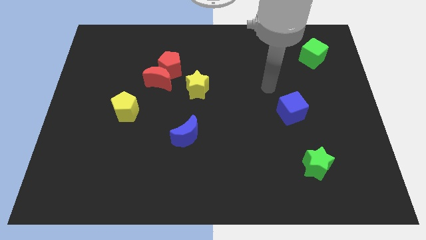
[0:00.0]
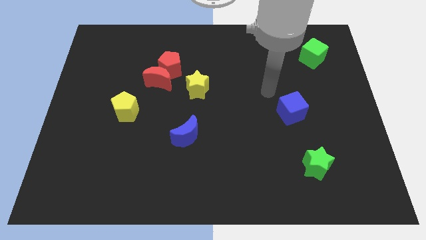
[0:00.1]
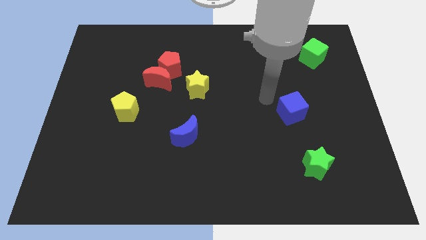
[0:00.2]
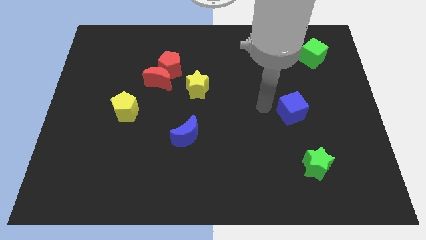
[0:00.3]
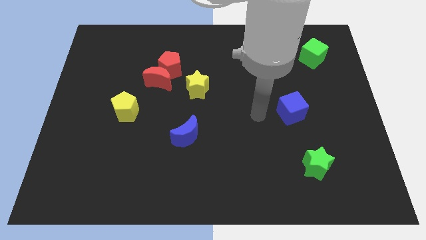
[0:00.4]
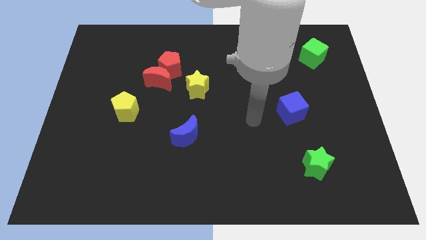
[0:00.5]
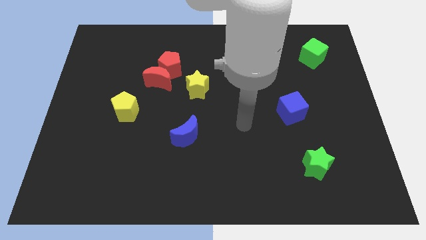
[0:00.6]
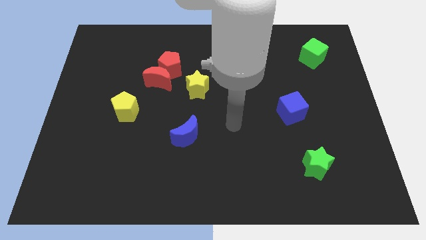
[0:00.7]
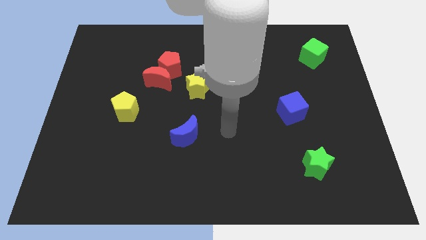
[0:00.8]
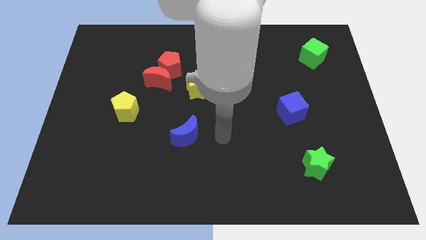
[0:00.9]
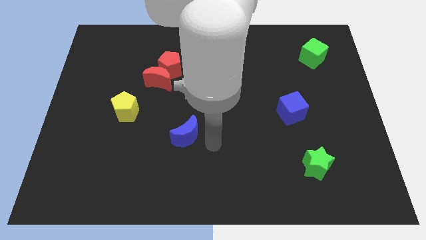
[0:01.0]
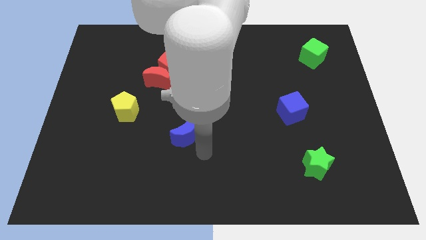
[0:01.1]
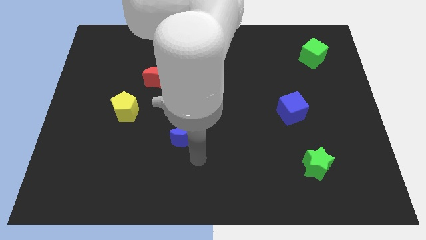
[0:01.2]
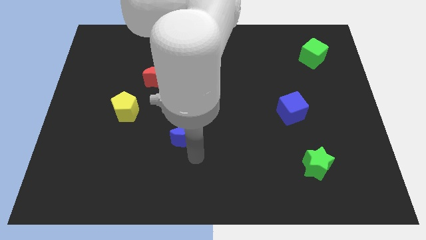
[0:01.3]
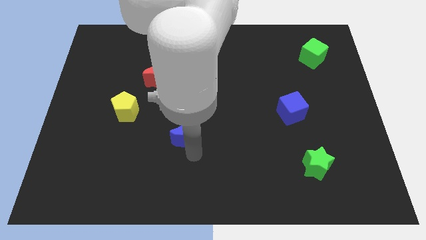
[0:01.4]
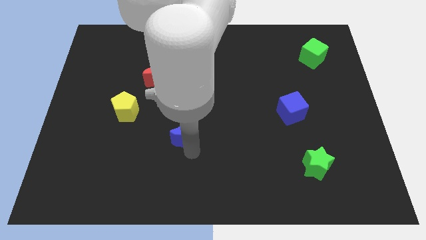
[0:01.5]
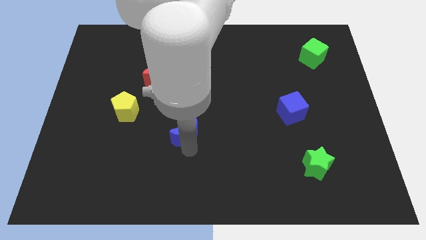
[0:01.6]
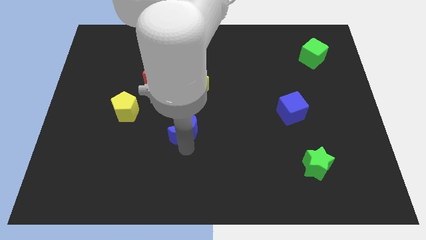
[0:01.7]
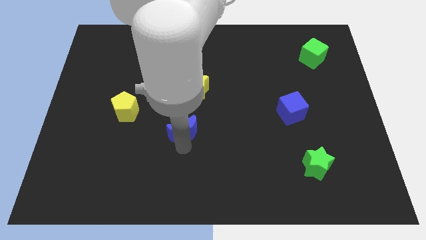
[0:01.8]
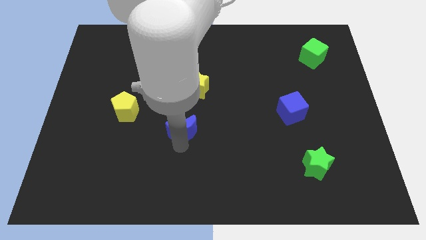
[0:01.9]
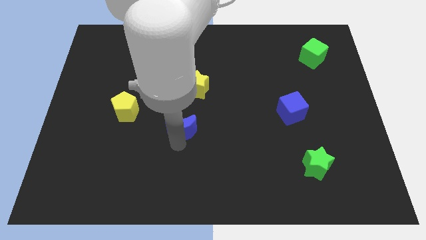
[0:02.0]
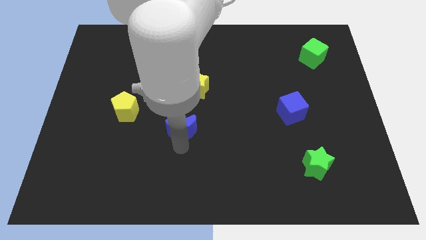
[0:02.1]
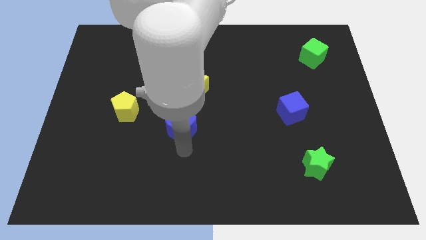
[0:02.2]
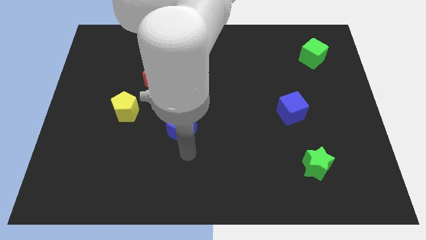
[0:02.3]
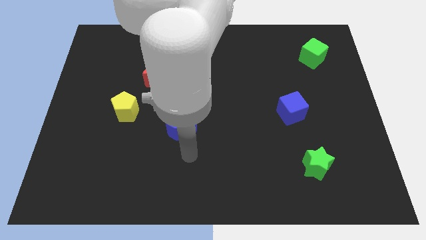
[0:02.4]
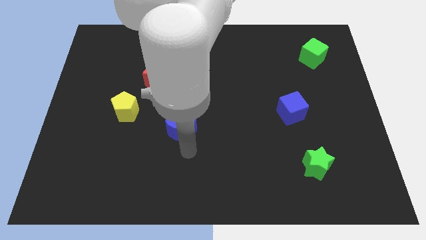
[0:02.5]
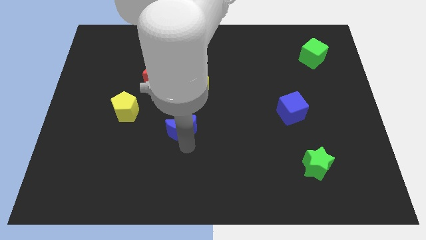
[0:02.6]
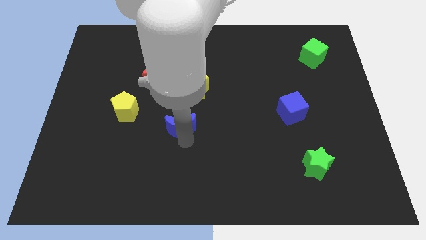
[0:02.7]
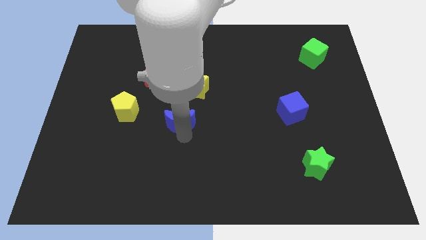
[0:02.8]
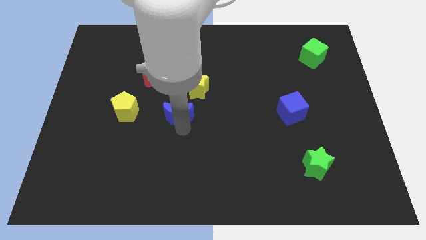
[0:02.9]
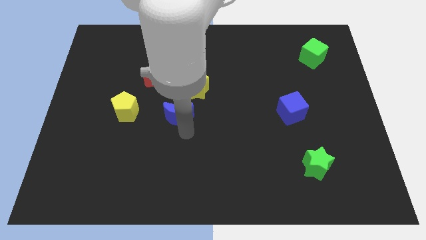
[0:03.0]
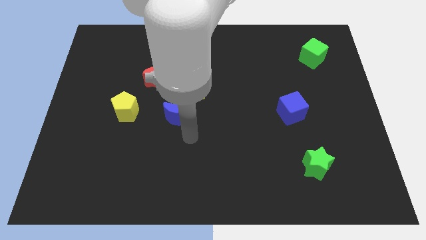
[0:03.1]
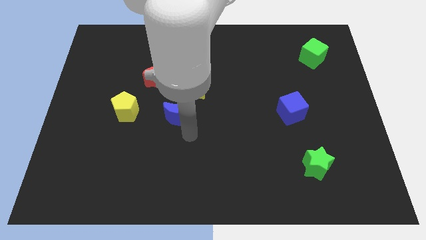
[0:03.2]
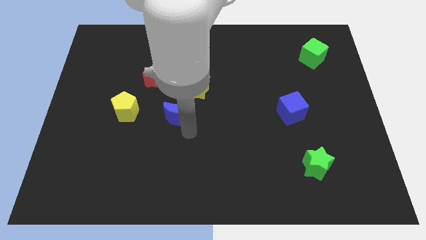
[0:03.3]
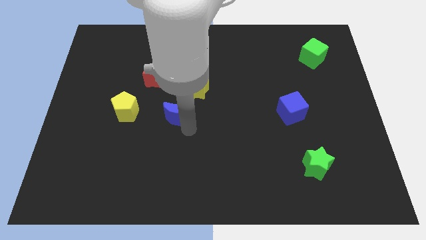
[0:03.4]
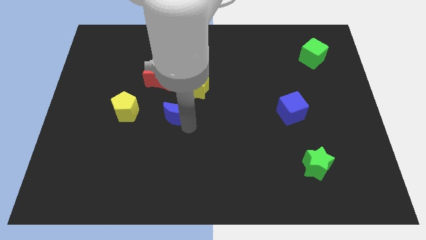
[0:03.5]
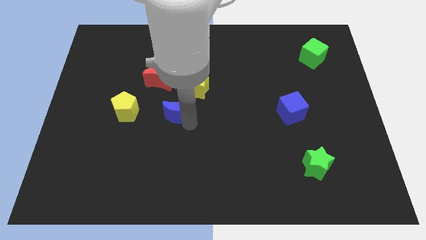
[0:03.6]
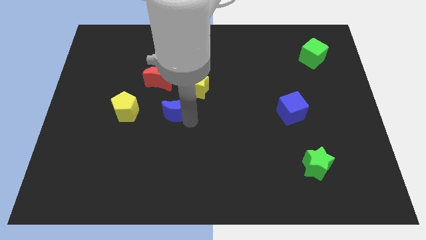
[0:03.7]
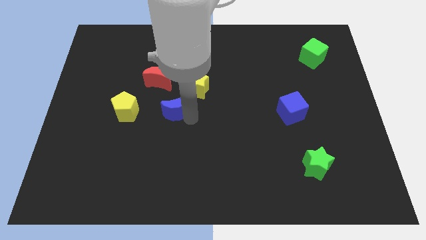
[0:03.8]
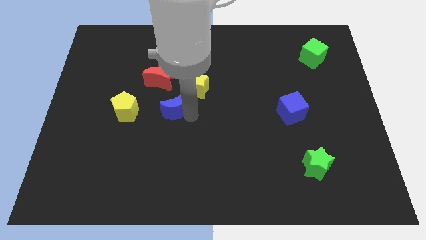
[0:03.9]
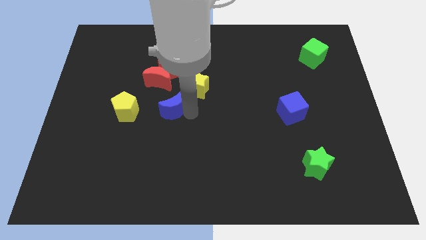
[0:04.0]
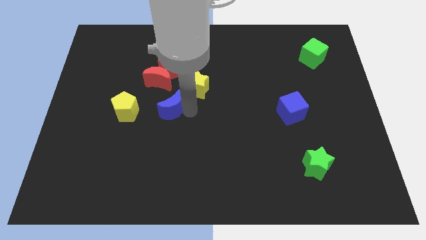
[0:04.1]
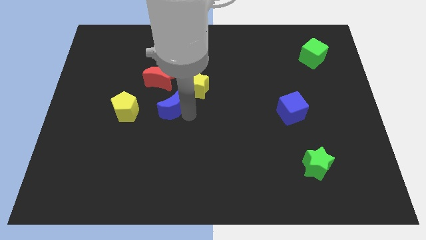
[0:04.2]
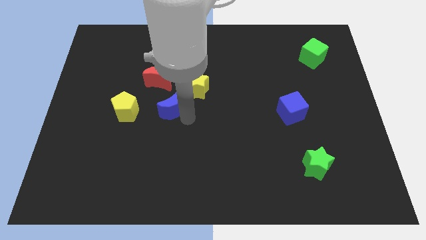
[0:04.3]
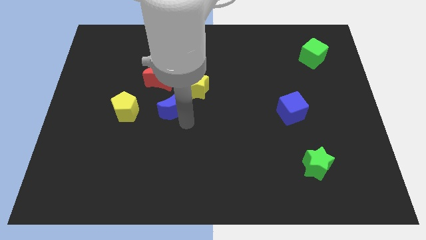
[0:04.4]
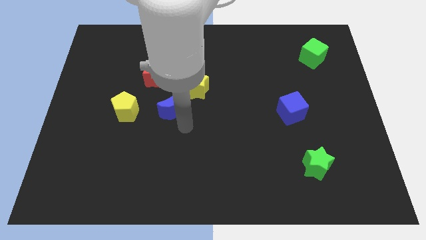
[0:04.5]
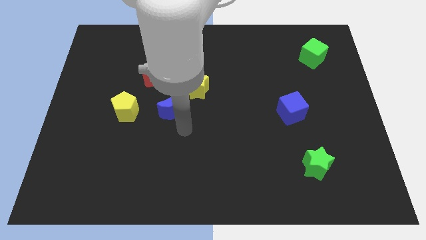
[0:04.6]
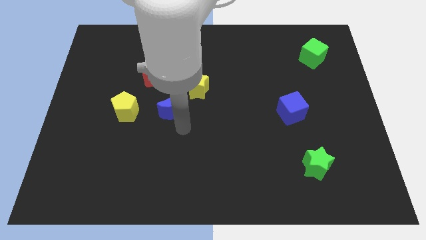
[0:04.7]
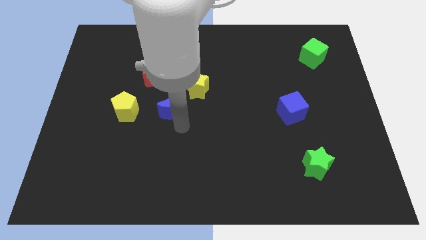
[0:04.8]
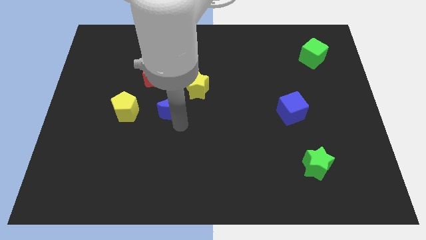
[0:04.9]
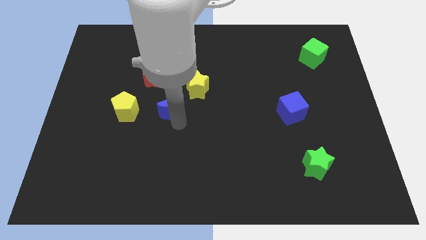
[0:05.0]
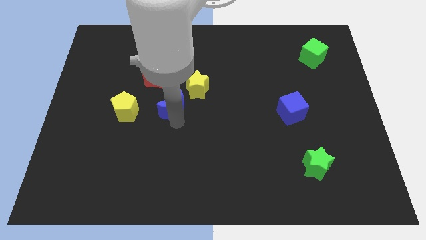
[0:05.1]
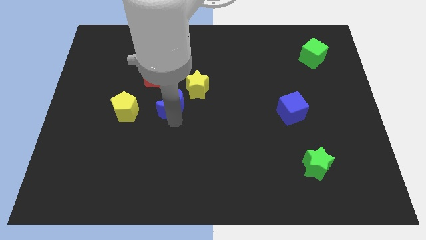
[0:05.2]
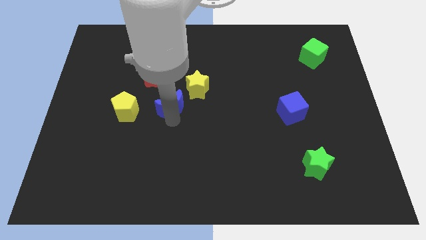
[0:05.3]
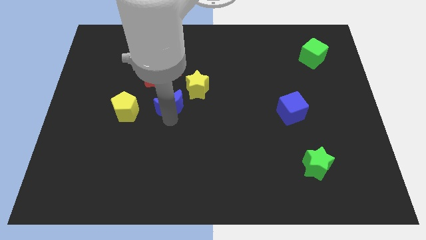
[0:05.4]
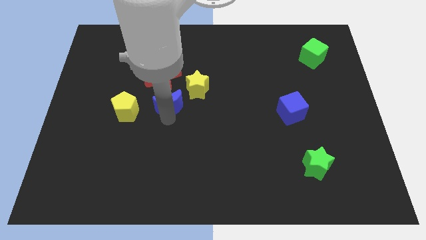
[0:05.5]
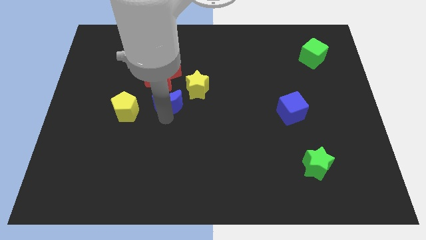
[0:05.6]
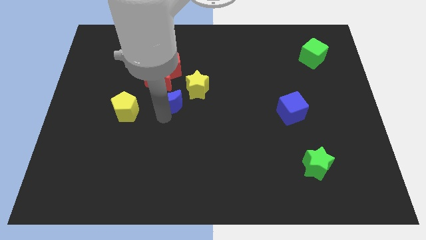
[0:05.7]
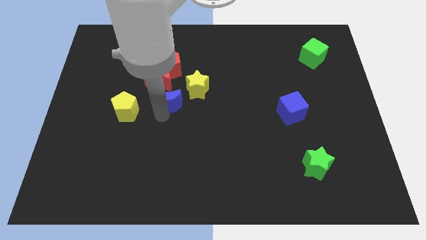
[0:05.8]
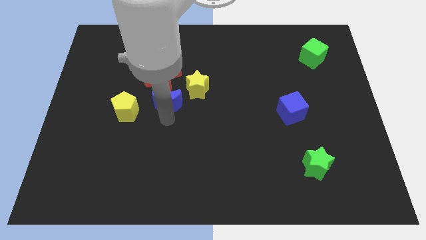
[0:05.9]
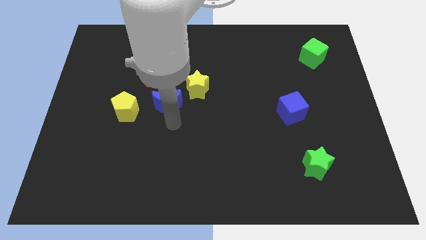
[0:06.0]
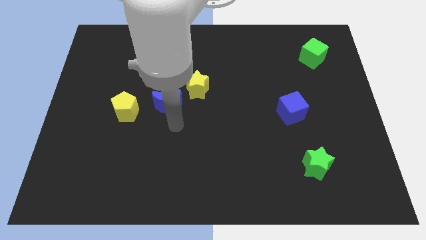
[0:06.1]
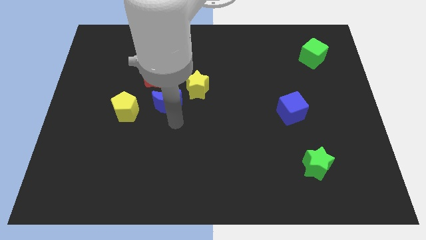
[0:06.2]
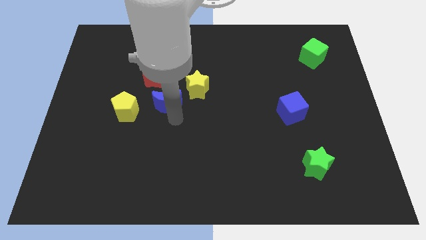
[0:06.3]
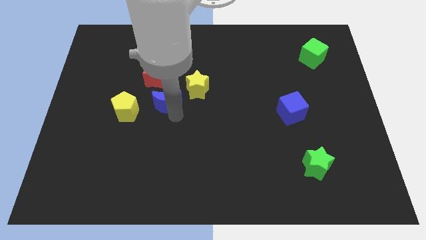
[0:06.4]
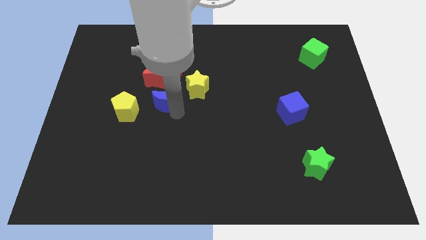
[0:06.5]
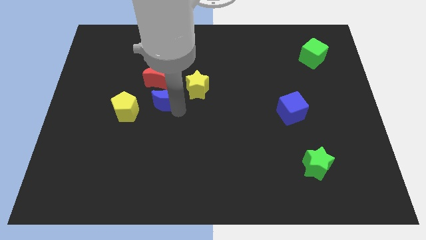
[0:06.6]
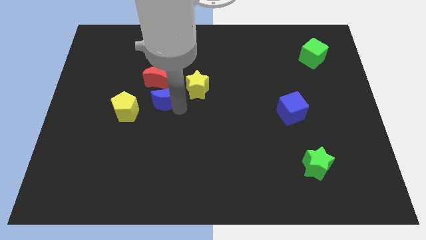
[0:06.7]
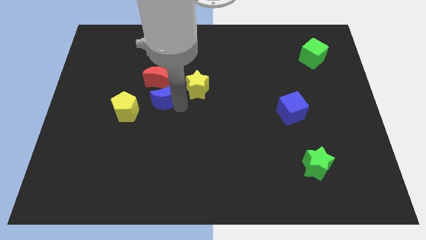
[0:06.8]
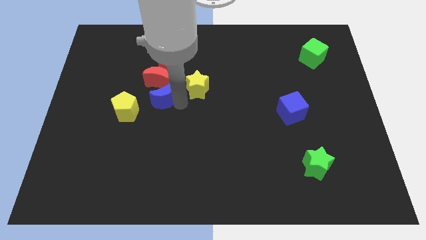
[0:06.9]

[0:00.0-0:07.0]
move the blue moon to the red moon
